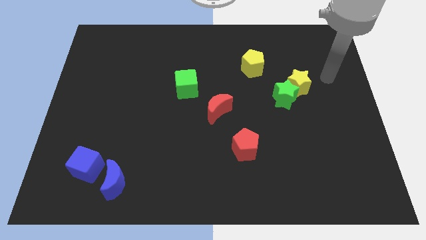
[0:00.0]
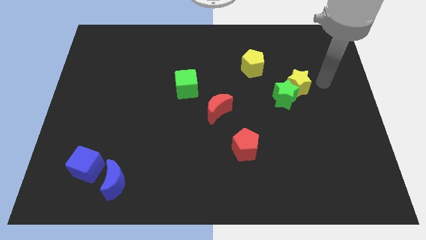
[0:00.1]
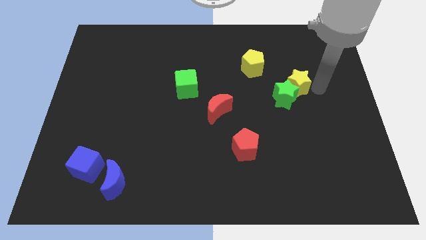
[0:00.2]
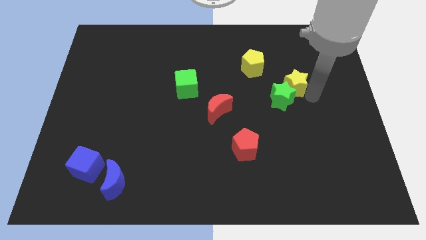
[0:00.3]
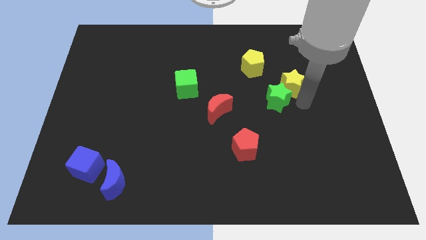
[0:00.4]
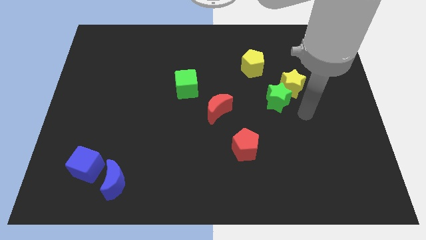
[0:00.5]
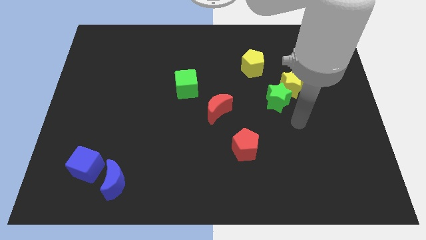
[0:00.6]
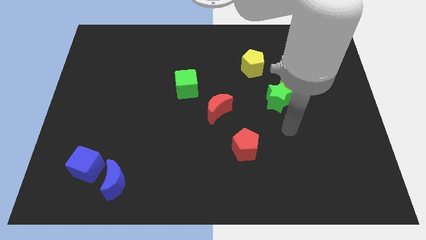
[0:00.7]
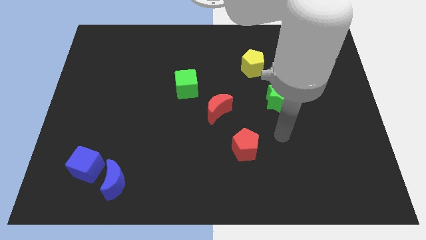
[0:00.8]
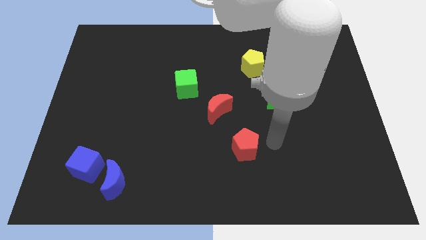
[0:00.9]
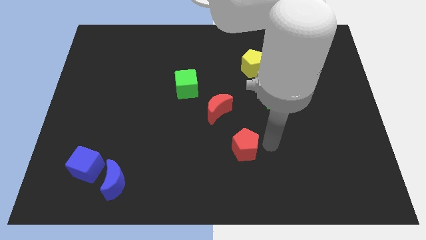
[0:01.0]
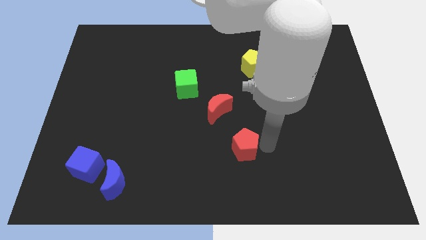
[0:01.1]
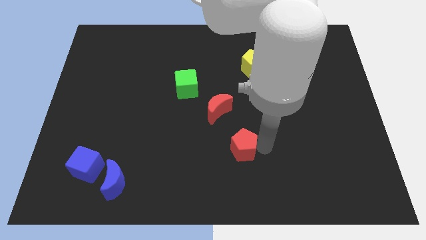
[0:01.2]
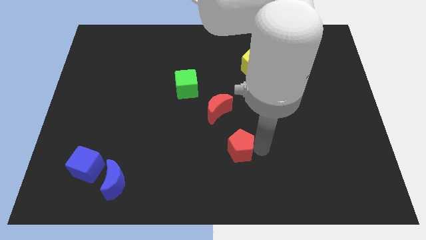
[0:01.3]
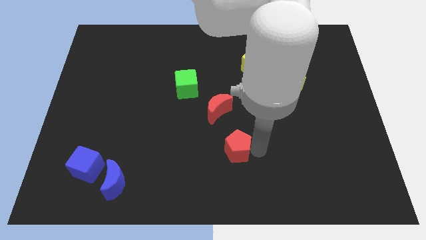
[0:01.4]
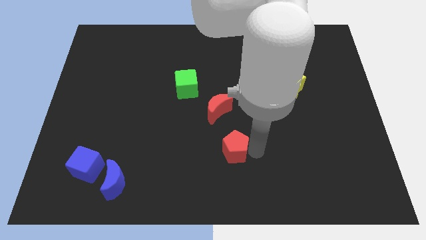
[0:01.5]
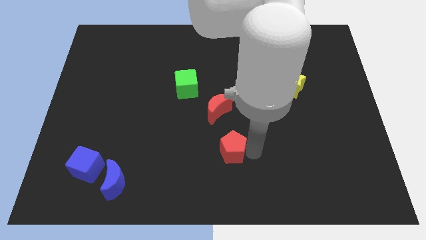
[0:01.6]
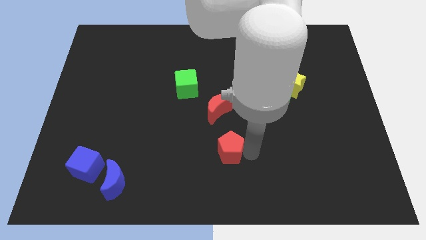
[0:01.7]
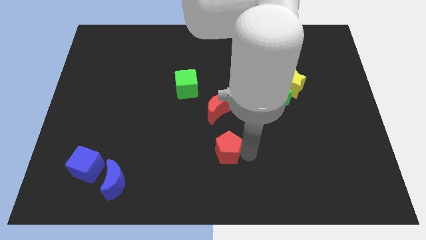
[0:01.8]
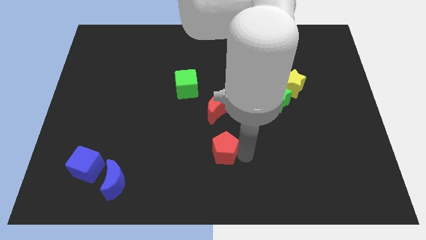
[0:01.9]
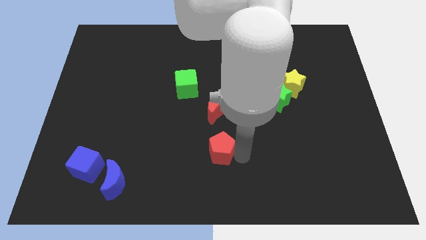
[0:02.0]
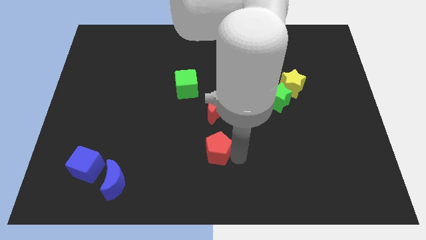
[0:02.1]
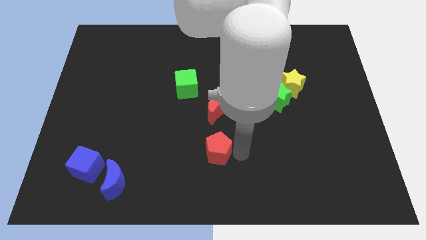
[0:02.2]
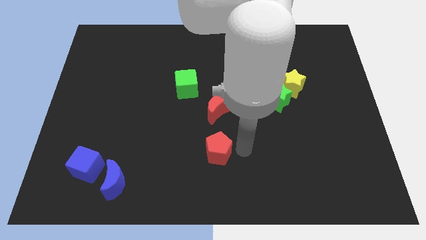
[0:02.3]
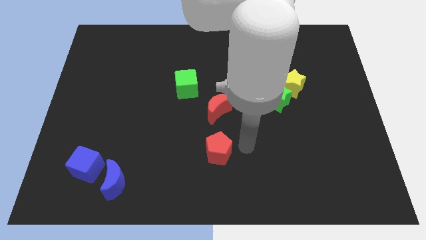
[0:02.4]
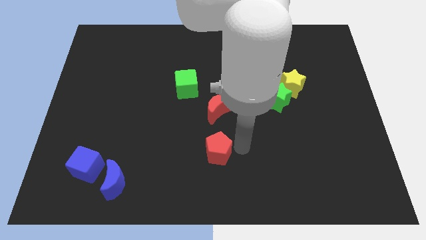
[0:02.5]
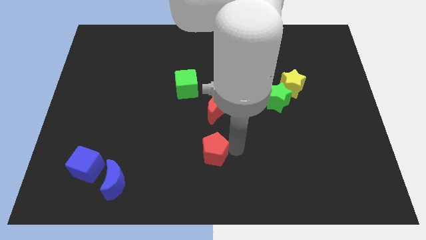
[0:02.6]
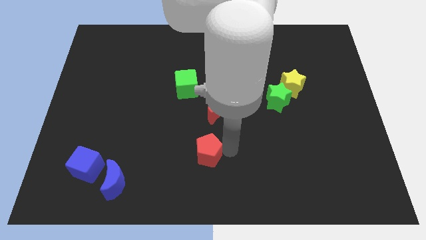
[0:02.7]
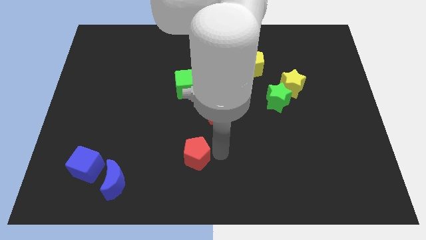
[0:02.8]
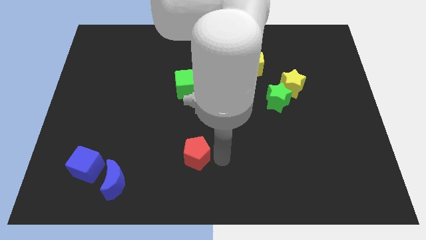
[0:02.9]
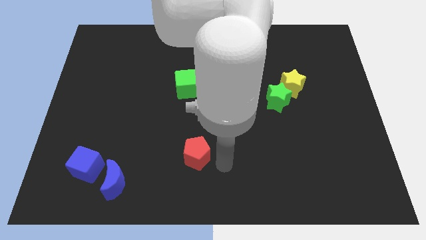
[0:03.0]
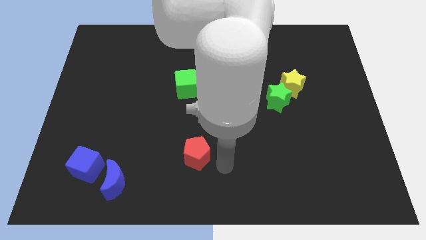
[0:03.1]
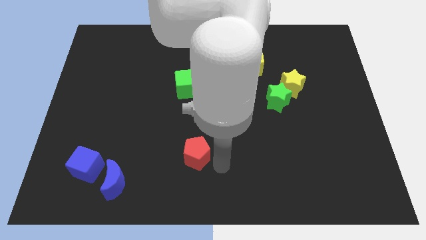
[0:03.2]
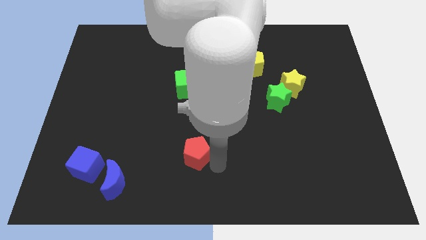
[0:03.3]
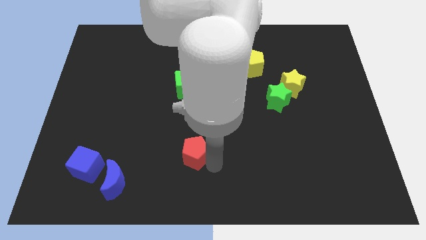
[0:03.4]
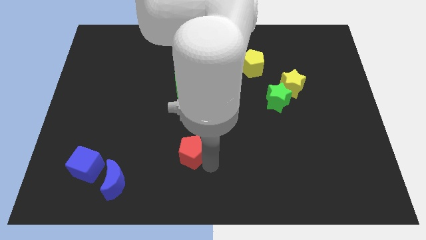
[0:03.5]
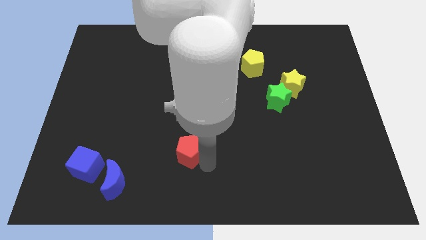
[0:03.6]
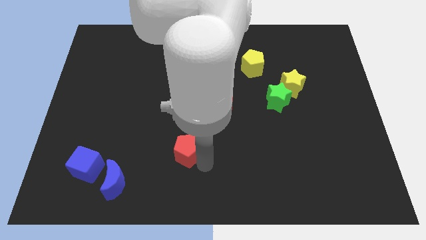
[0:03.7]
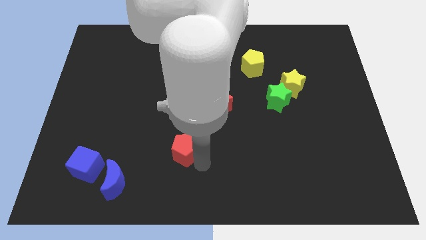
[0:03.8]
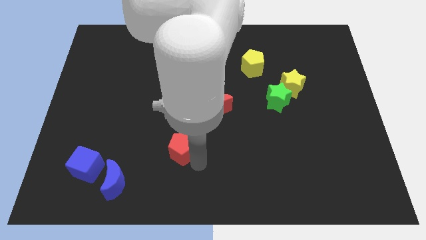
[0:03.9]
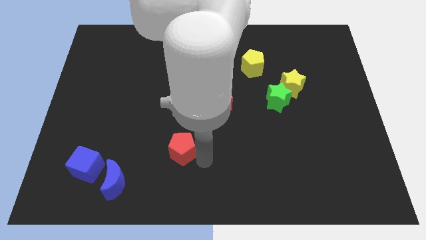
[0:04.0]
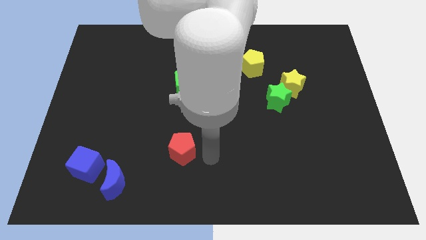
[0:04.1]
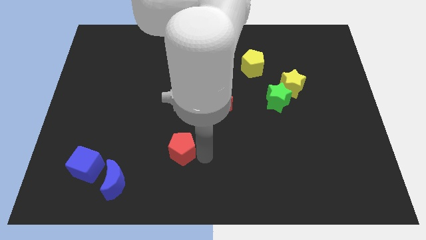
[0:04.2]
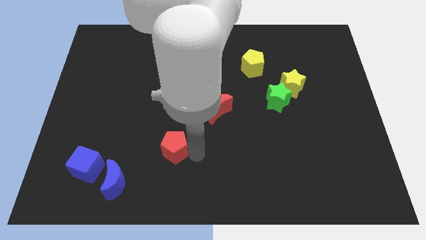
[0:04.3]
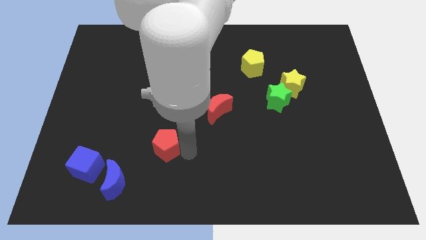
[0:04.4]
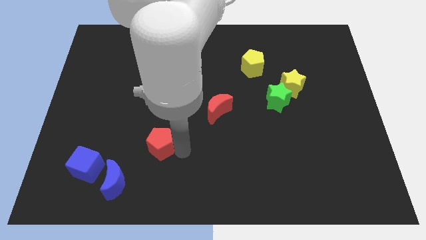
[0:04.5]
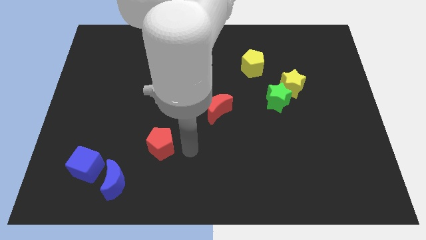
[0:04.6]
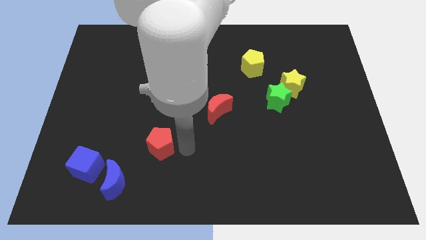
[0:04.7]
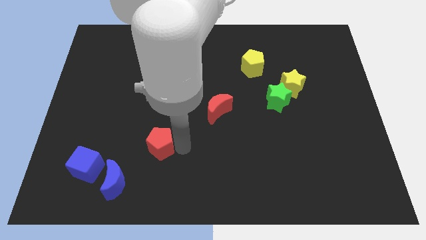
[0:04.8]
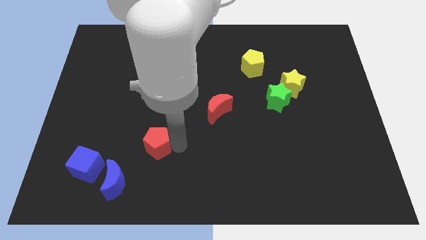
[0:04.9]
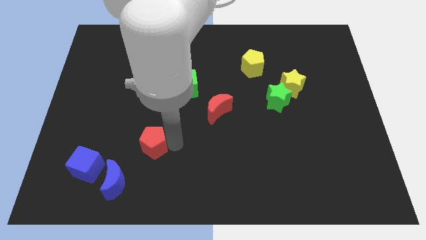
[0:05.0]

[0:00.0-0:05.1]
push the red pentagon left

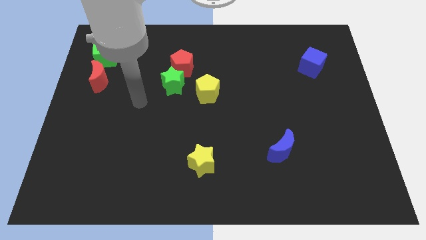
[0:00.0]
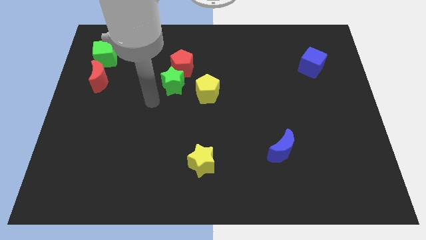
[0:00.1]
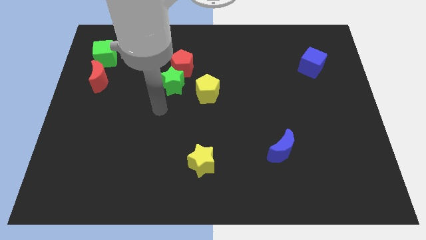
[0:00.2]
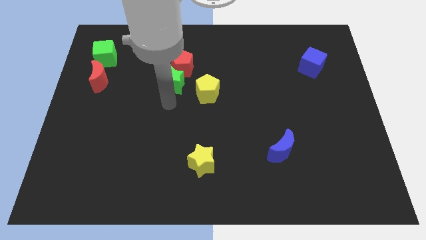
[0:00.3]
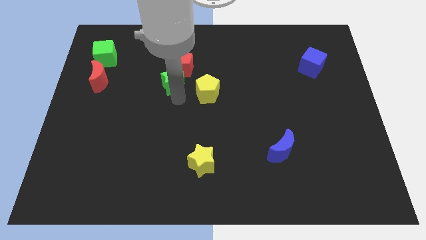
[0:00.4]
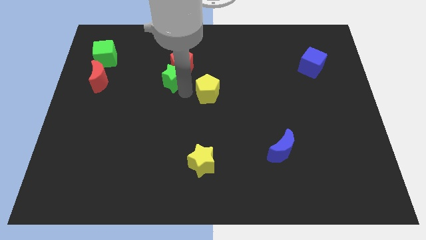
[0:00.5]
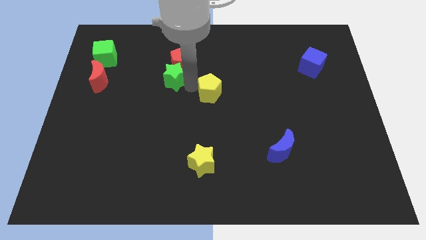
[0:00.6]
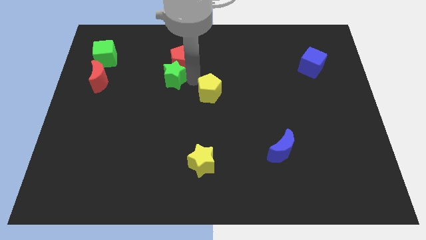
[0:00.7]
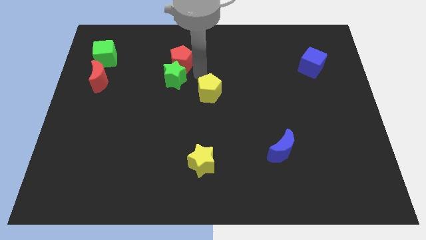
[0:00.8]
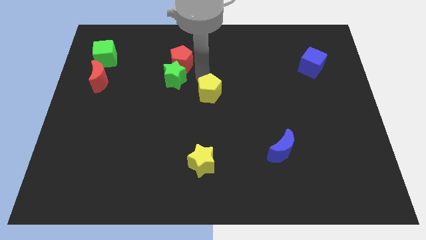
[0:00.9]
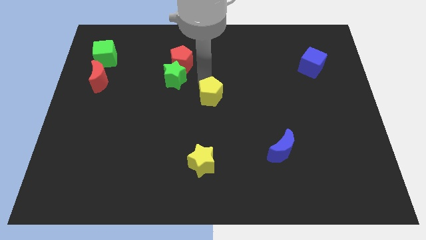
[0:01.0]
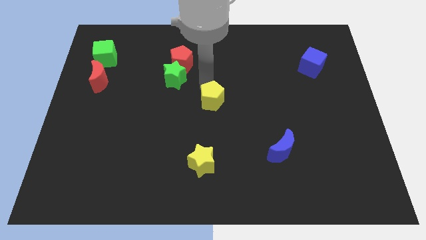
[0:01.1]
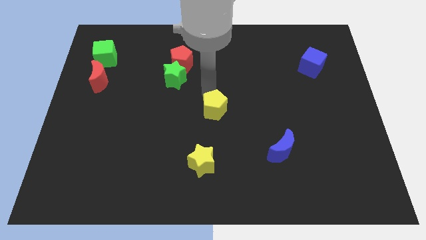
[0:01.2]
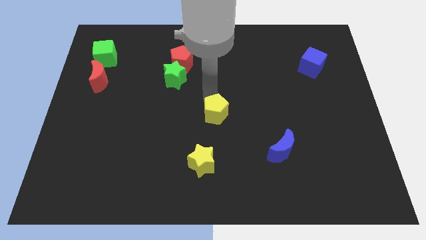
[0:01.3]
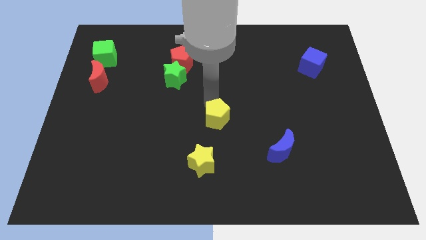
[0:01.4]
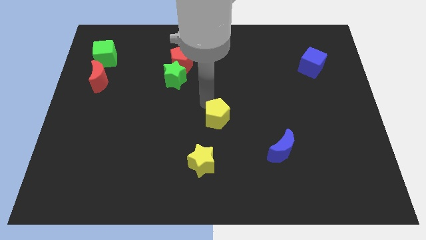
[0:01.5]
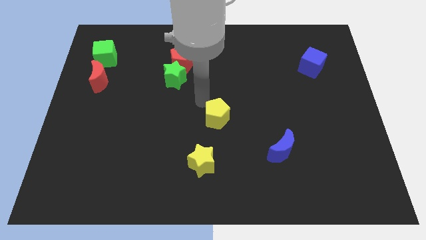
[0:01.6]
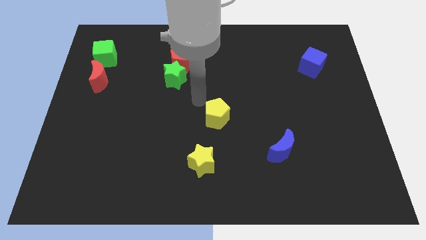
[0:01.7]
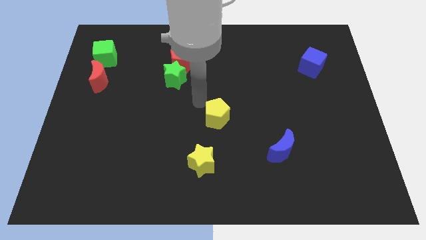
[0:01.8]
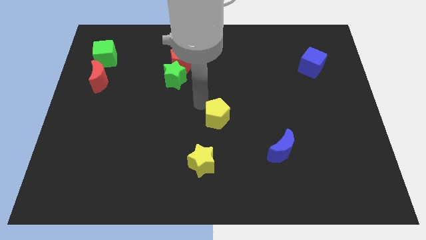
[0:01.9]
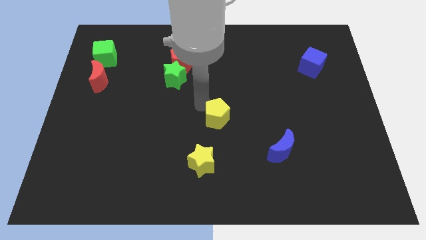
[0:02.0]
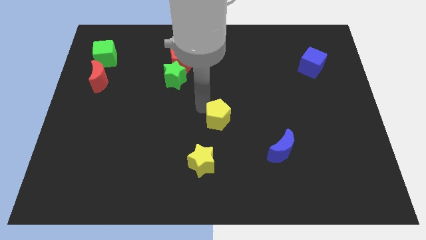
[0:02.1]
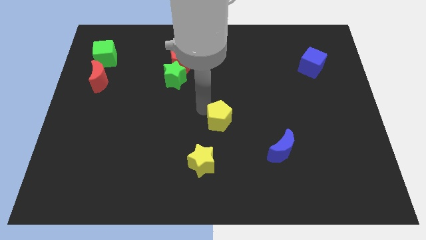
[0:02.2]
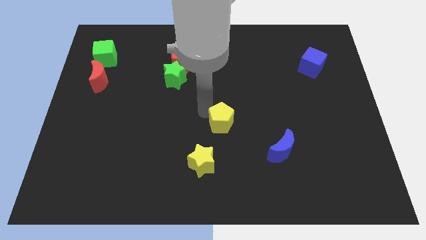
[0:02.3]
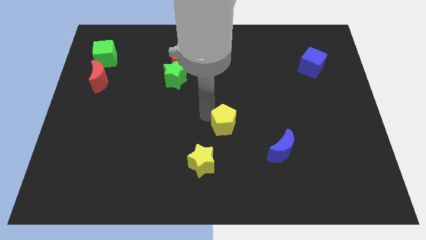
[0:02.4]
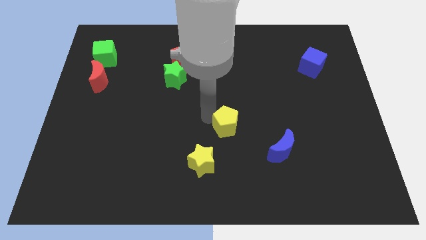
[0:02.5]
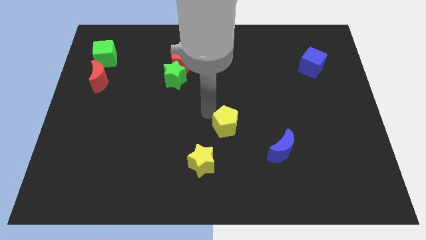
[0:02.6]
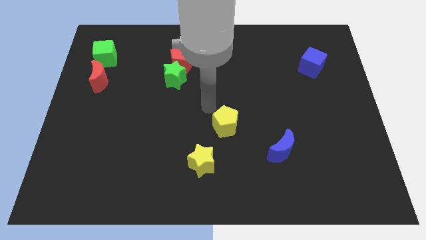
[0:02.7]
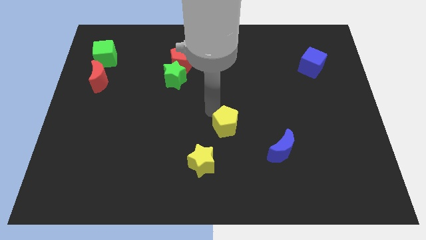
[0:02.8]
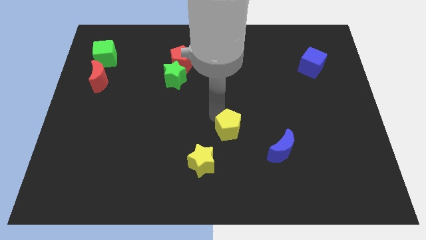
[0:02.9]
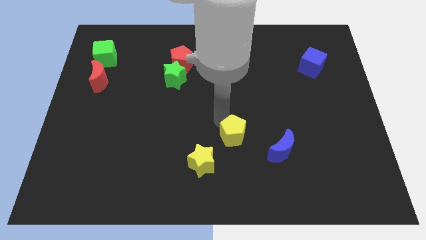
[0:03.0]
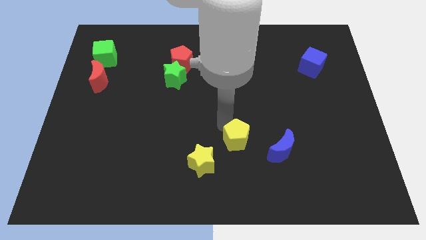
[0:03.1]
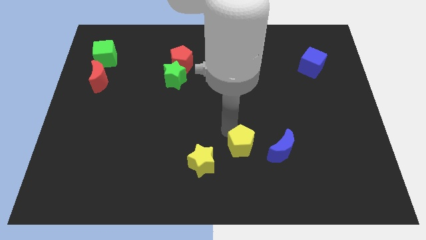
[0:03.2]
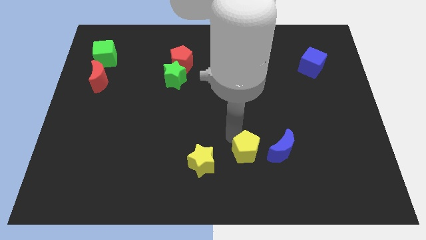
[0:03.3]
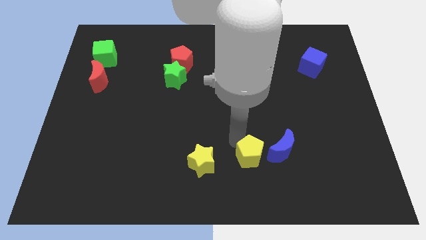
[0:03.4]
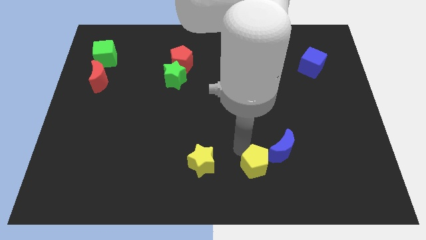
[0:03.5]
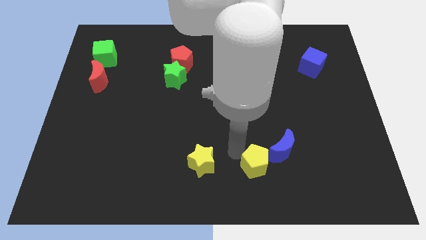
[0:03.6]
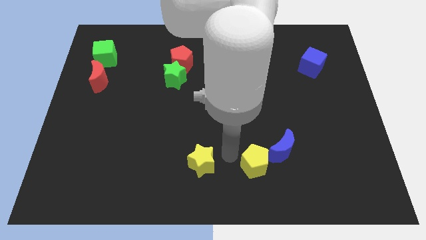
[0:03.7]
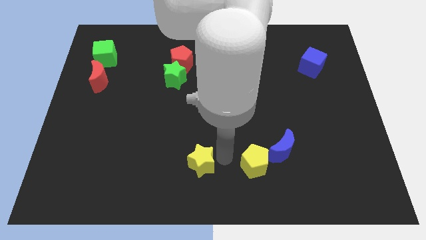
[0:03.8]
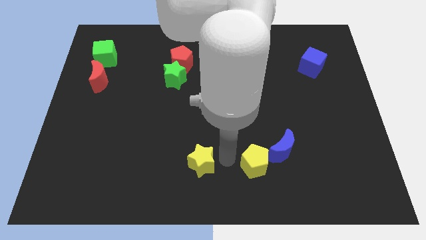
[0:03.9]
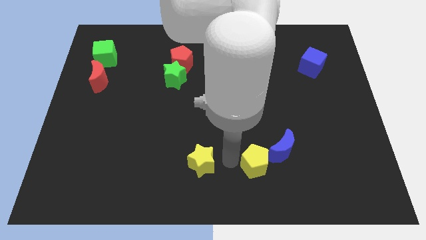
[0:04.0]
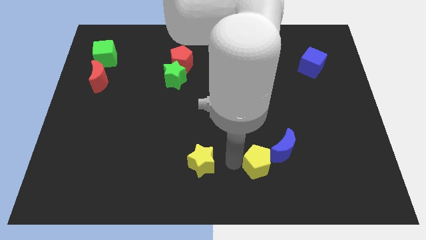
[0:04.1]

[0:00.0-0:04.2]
slide the yellow pentagon down and to the right
